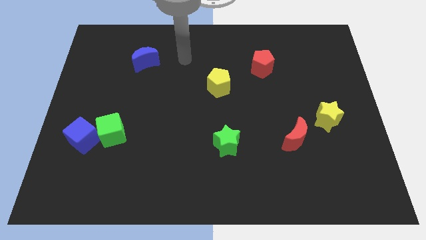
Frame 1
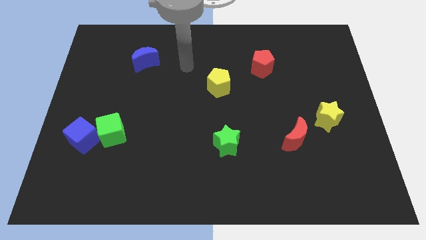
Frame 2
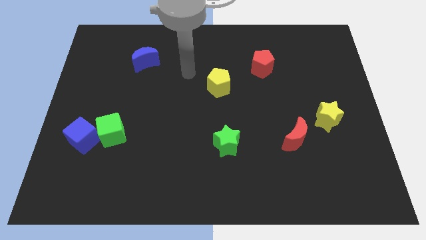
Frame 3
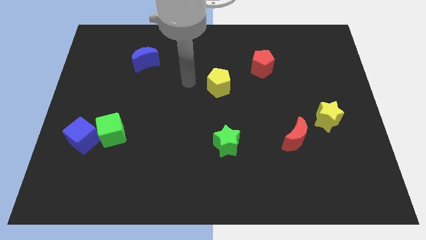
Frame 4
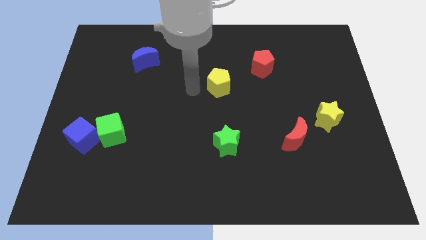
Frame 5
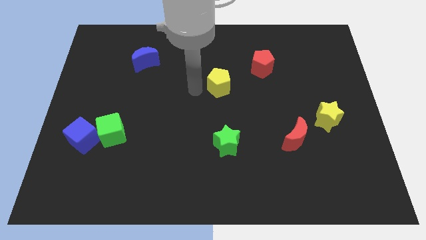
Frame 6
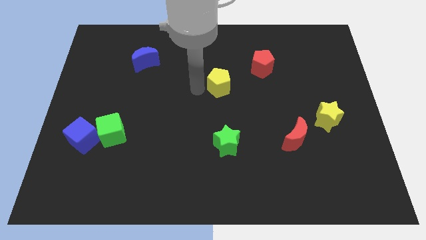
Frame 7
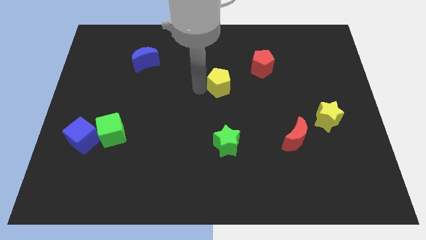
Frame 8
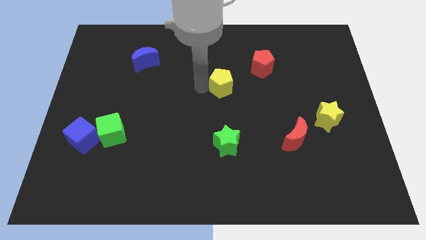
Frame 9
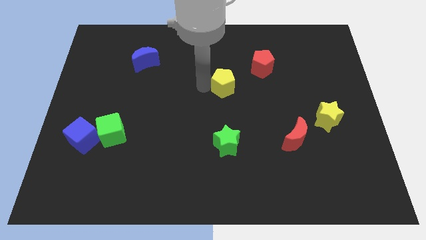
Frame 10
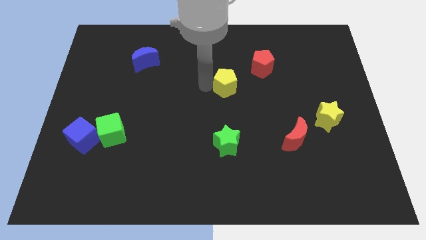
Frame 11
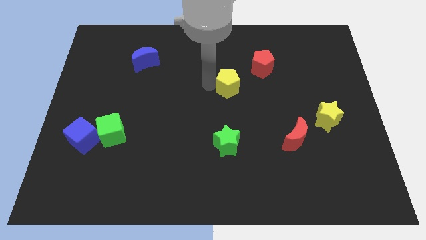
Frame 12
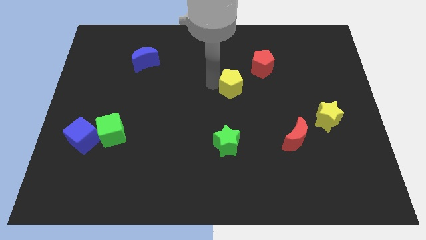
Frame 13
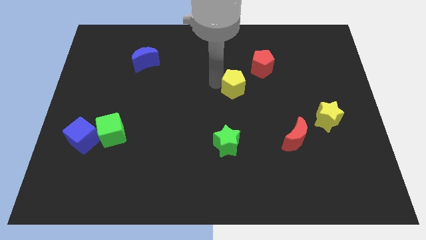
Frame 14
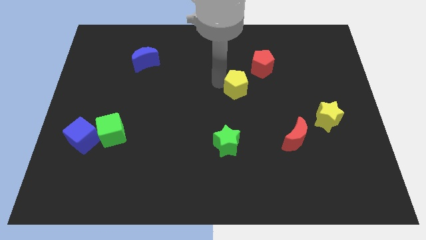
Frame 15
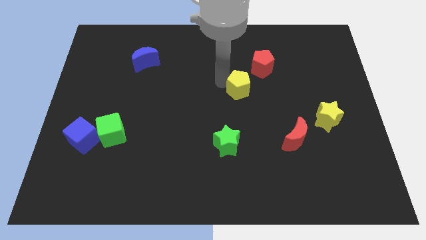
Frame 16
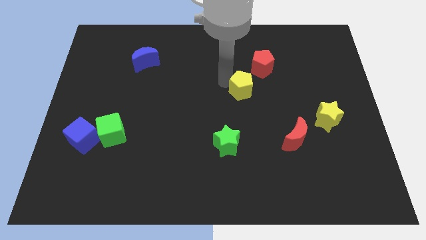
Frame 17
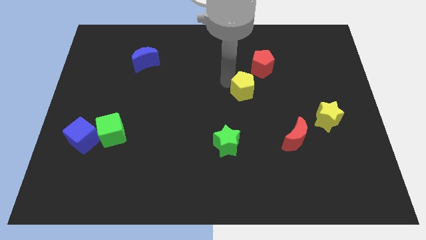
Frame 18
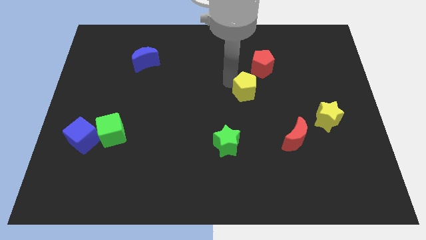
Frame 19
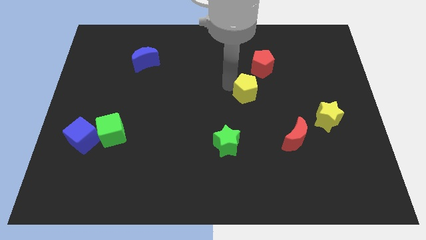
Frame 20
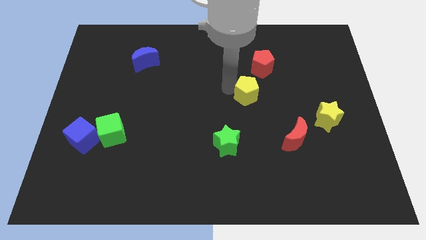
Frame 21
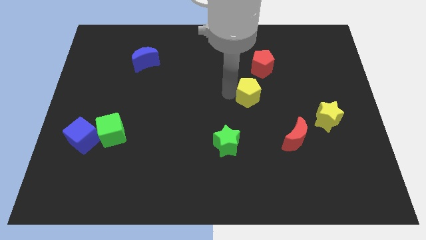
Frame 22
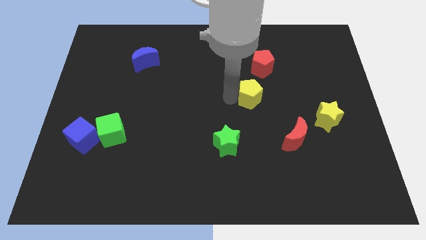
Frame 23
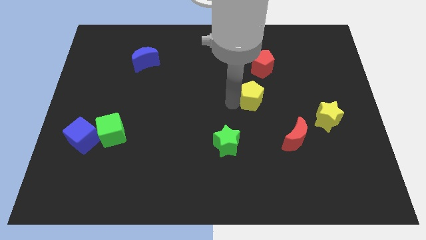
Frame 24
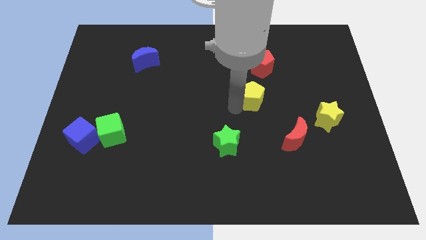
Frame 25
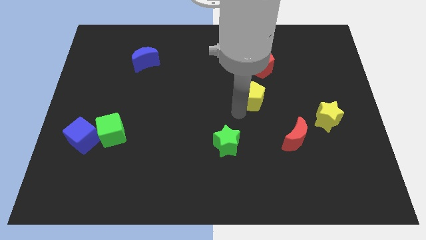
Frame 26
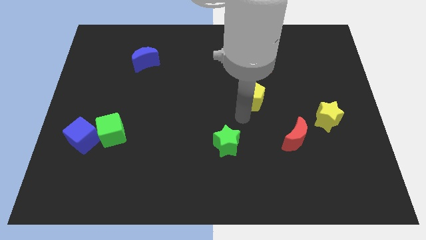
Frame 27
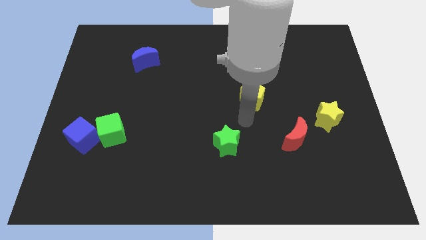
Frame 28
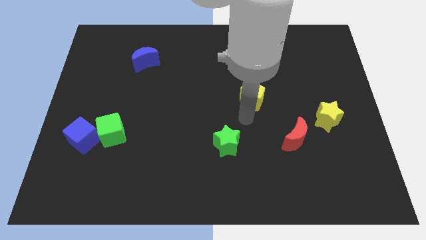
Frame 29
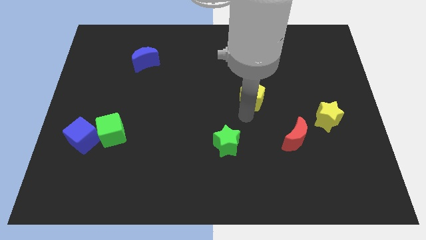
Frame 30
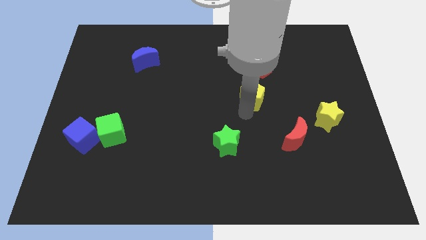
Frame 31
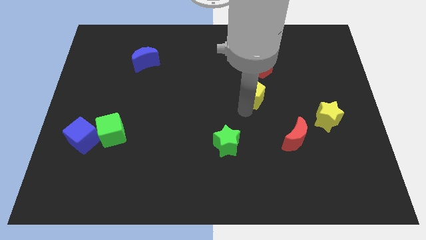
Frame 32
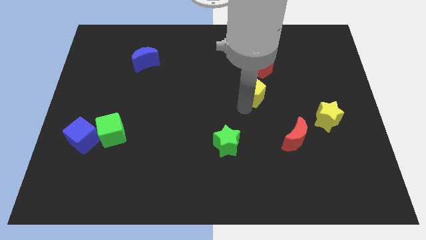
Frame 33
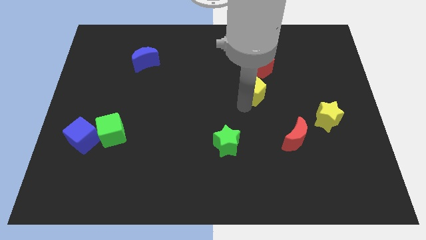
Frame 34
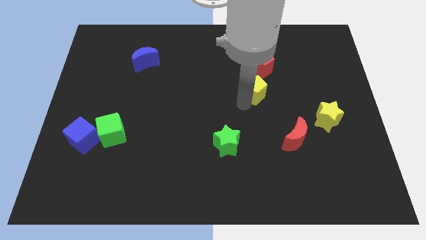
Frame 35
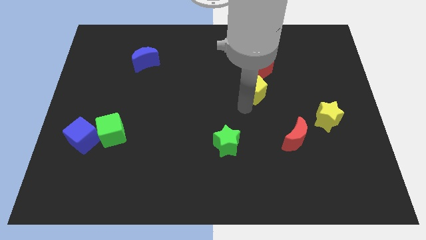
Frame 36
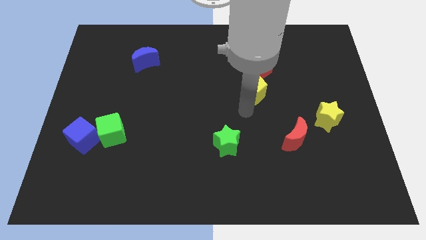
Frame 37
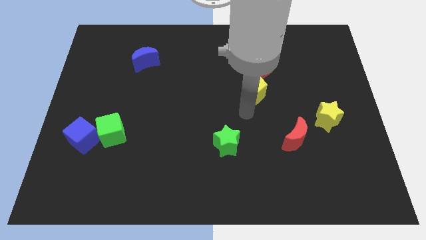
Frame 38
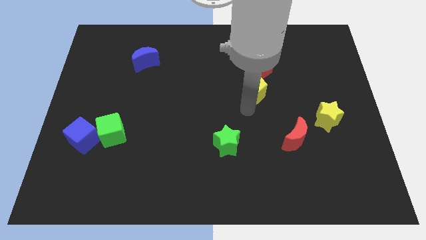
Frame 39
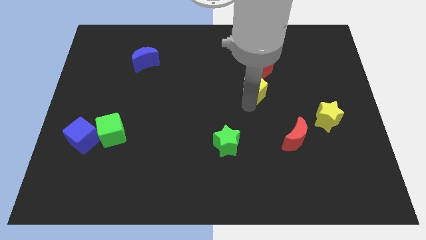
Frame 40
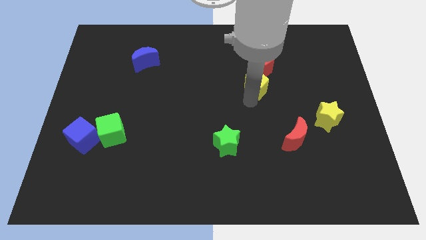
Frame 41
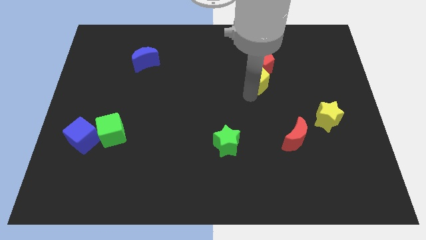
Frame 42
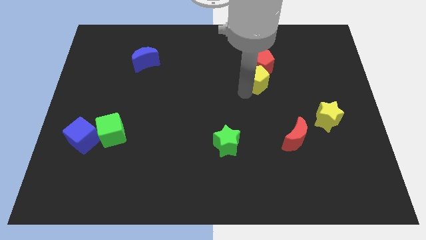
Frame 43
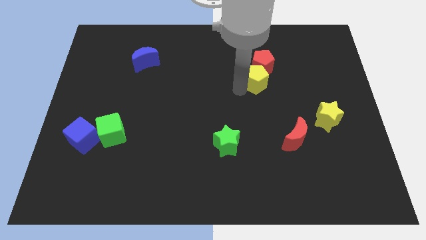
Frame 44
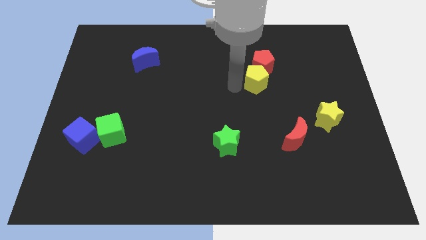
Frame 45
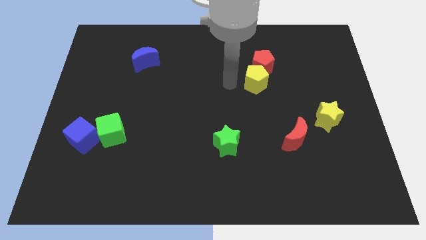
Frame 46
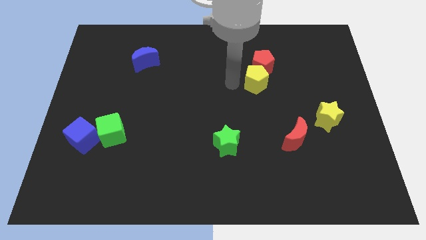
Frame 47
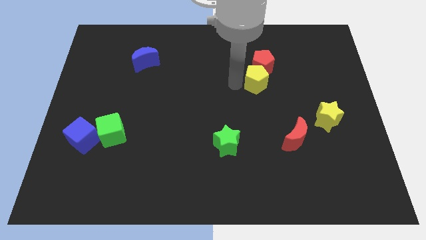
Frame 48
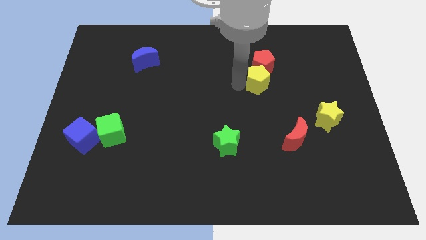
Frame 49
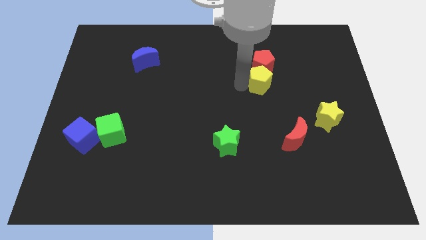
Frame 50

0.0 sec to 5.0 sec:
slide the yellow pentagon to the bottom right side of the red pentagon

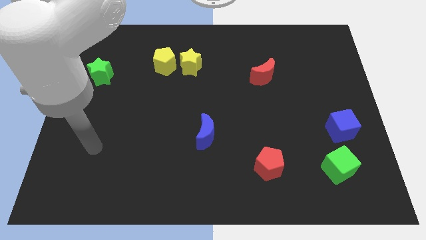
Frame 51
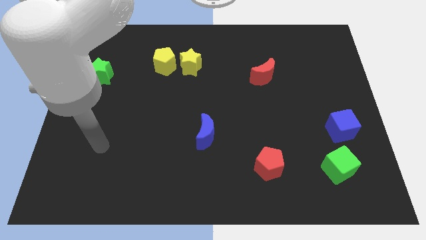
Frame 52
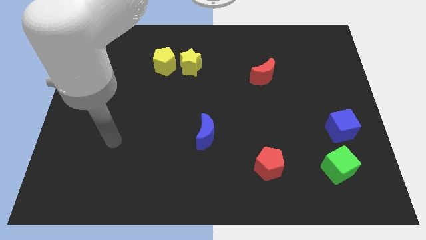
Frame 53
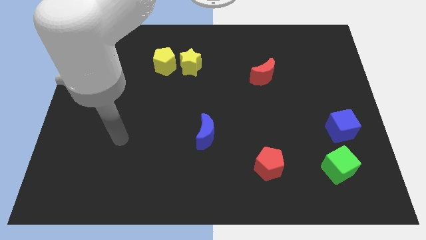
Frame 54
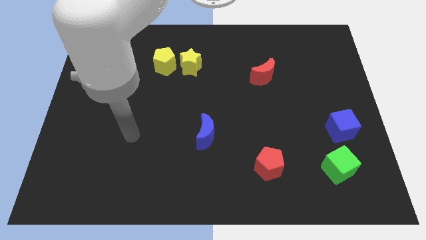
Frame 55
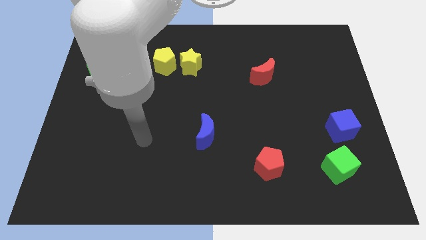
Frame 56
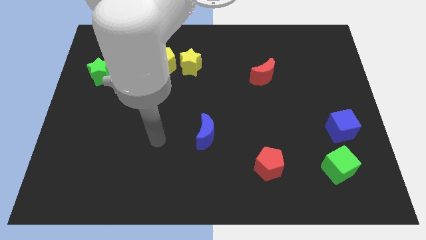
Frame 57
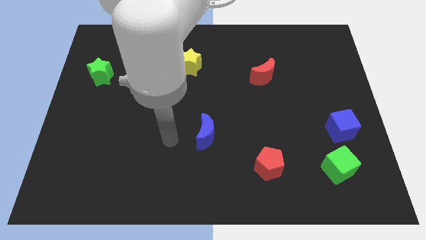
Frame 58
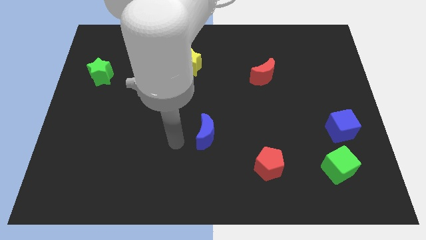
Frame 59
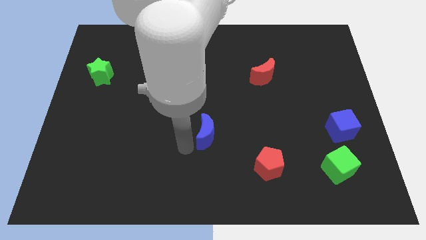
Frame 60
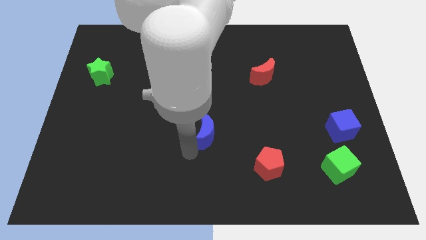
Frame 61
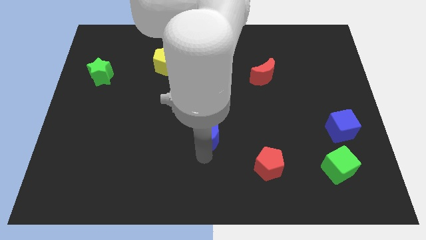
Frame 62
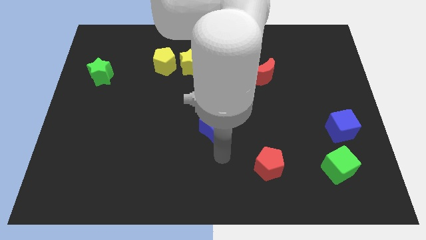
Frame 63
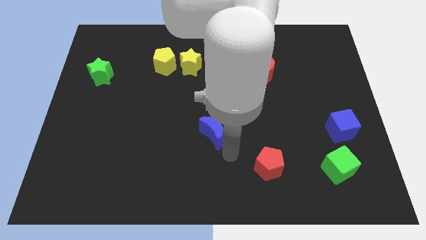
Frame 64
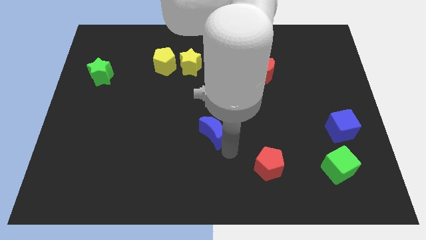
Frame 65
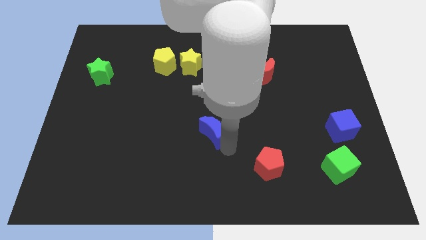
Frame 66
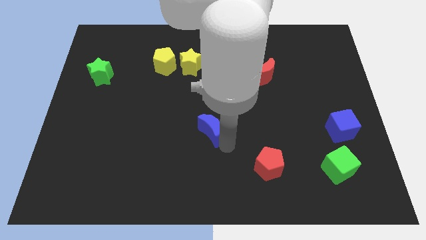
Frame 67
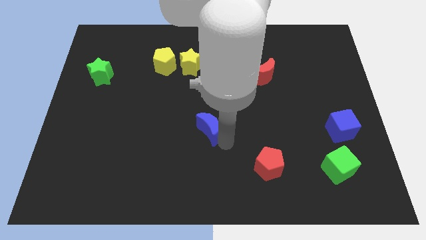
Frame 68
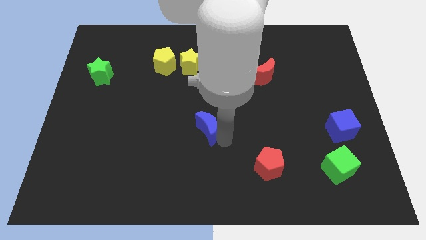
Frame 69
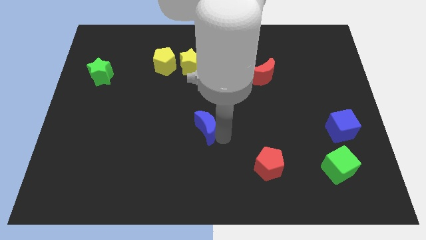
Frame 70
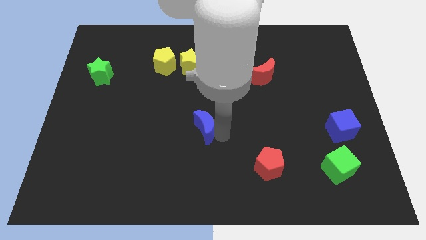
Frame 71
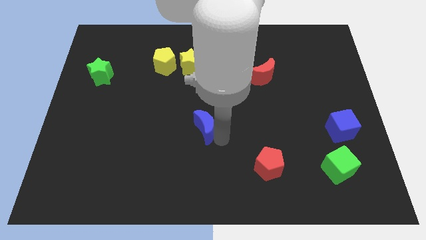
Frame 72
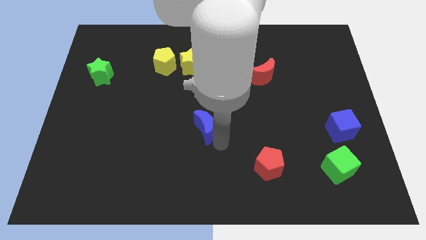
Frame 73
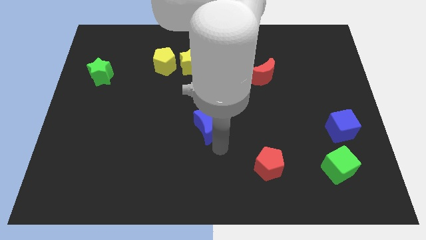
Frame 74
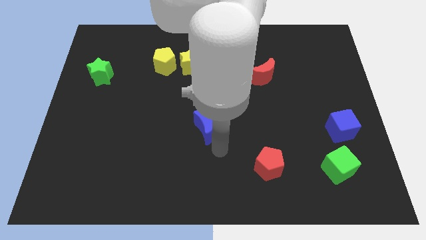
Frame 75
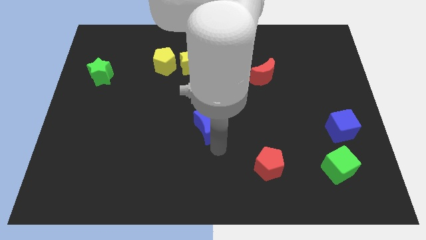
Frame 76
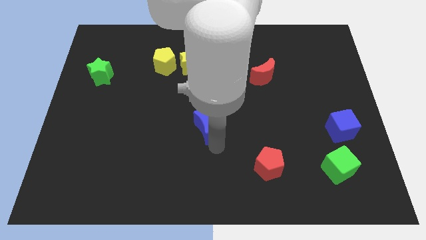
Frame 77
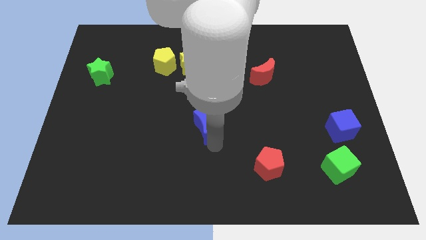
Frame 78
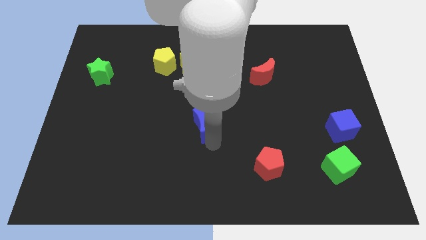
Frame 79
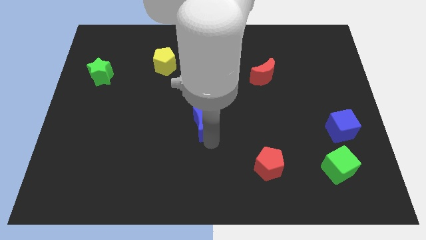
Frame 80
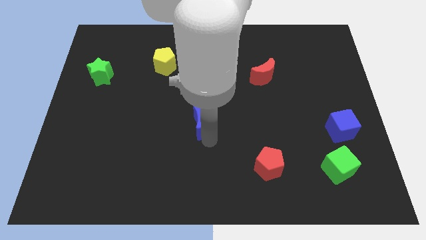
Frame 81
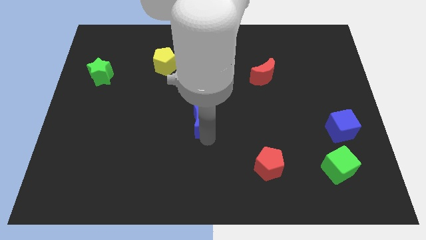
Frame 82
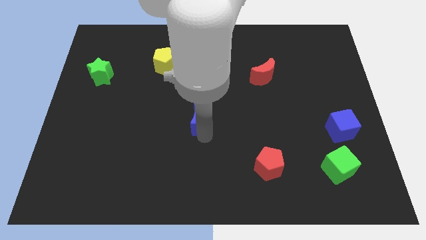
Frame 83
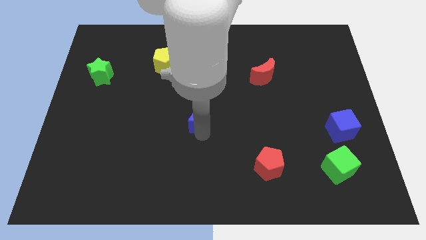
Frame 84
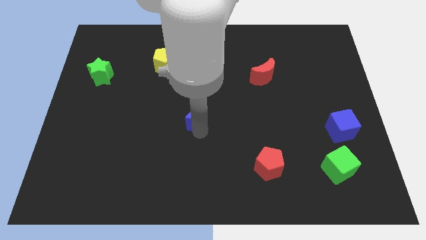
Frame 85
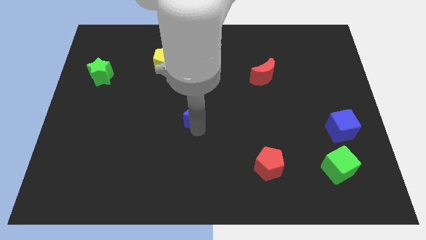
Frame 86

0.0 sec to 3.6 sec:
move the blue moon to the bottom side of the yellow star
